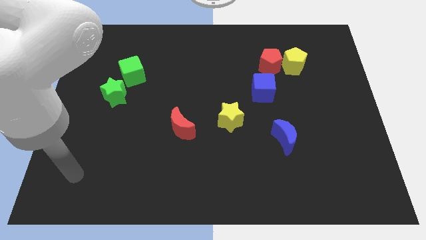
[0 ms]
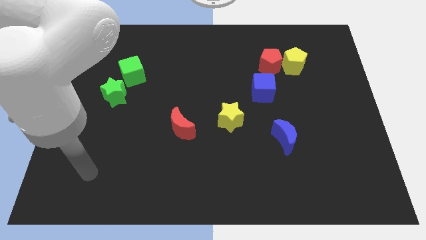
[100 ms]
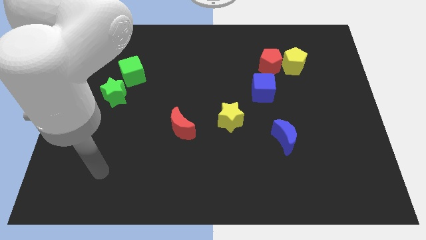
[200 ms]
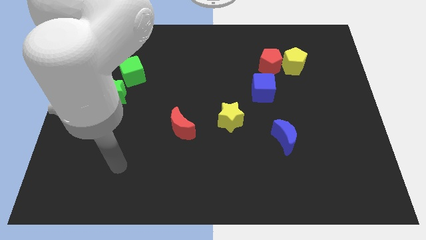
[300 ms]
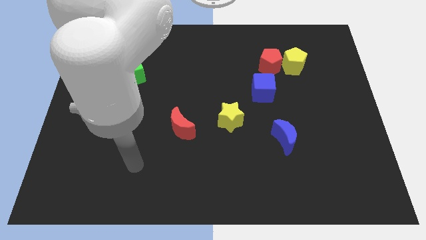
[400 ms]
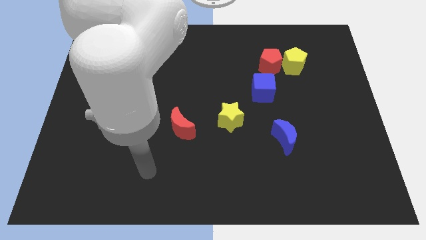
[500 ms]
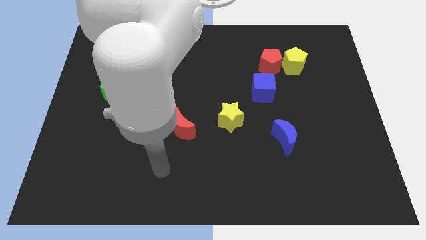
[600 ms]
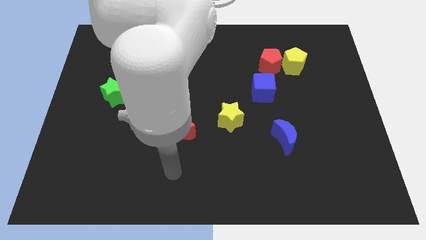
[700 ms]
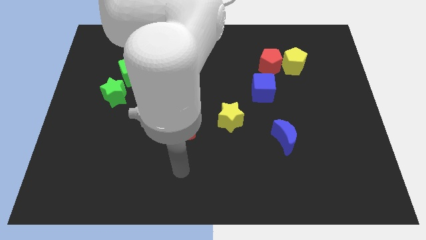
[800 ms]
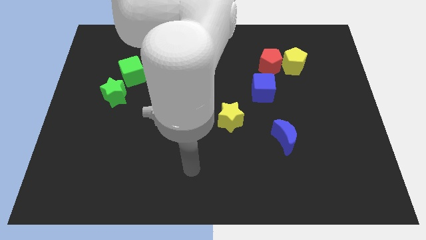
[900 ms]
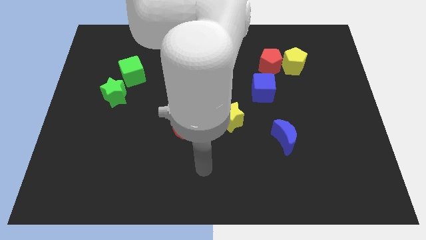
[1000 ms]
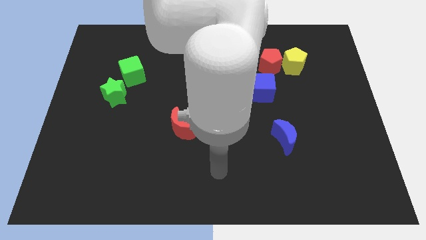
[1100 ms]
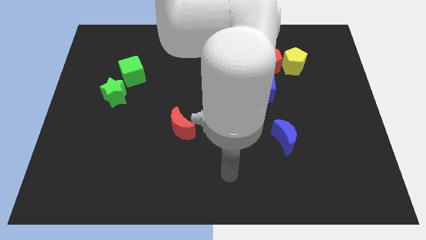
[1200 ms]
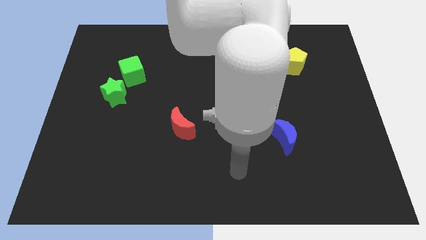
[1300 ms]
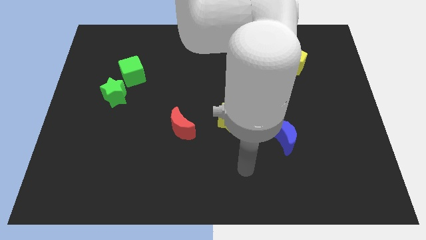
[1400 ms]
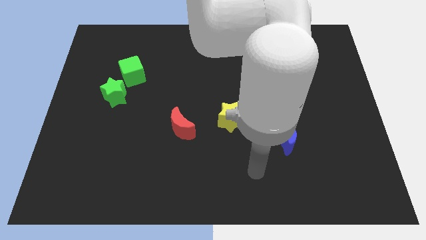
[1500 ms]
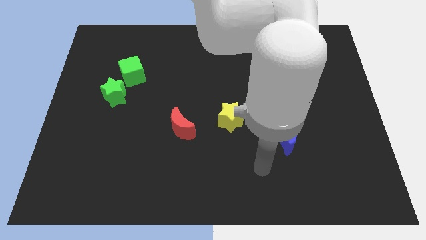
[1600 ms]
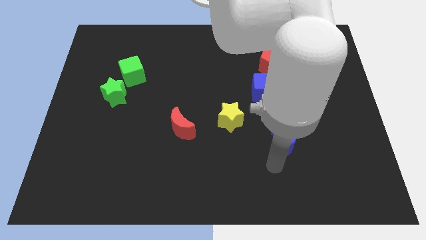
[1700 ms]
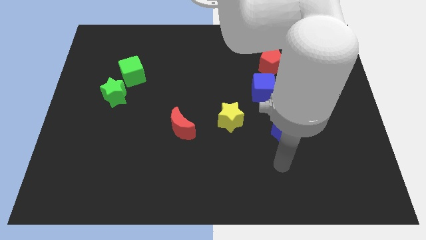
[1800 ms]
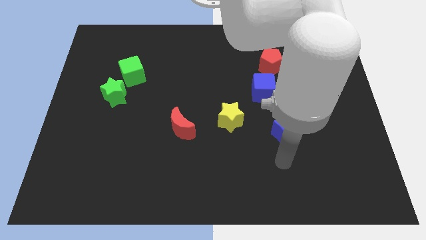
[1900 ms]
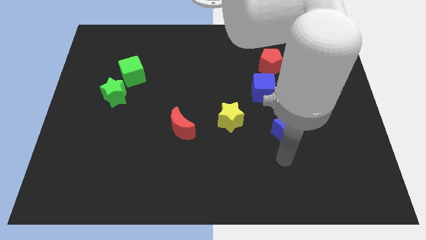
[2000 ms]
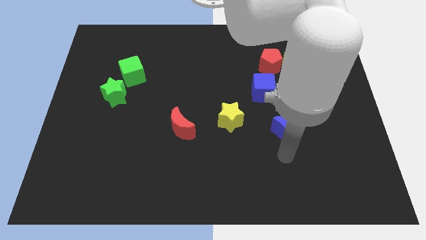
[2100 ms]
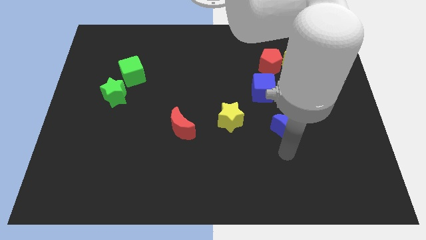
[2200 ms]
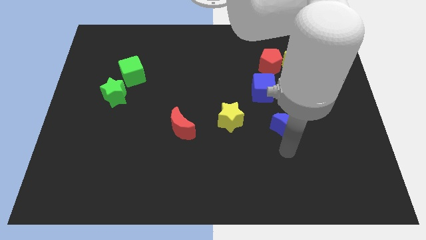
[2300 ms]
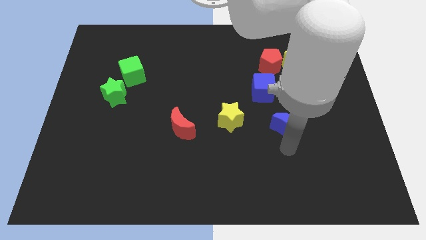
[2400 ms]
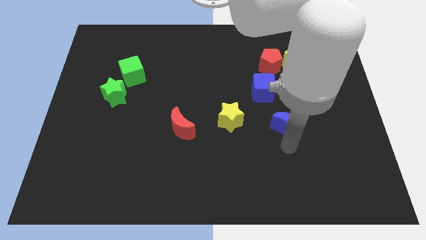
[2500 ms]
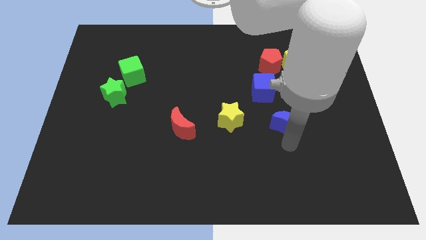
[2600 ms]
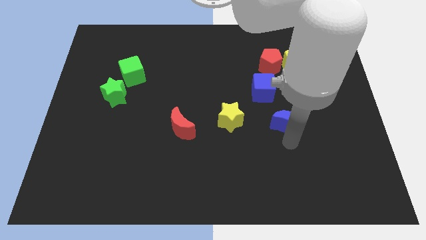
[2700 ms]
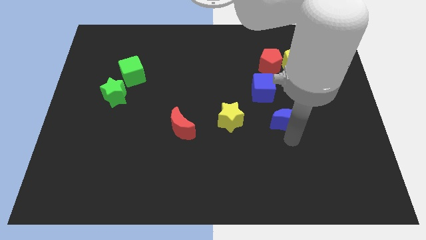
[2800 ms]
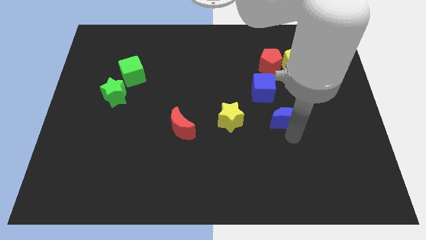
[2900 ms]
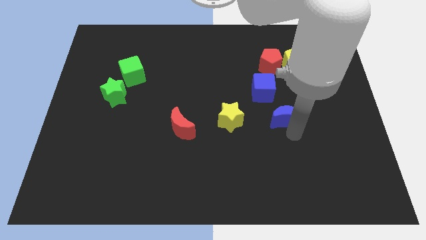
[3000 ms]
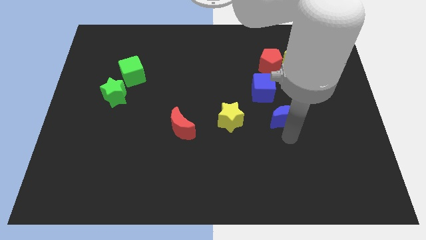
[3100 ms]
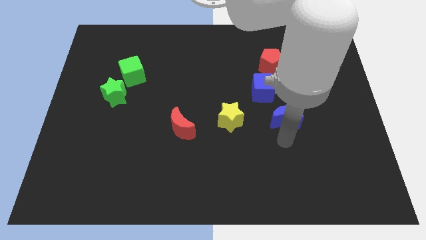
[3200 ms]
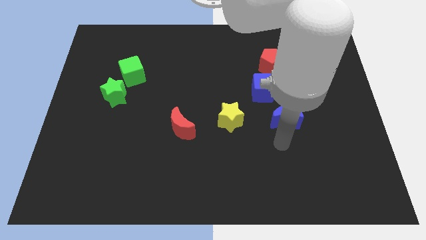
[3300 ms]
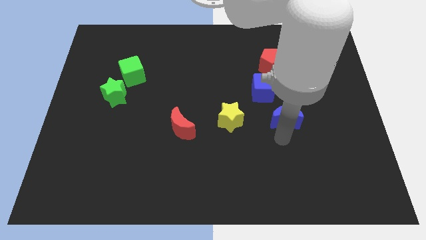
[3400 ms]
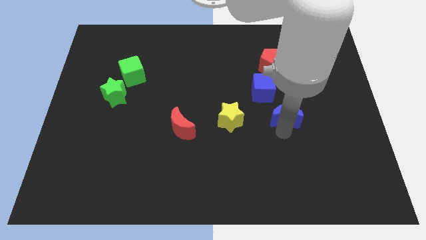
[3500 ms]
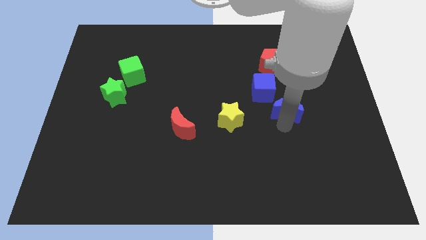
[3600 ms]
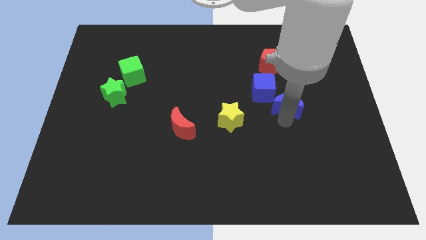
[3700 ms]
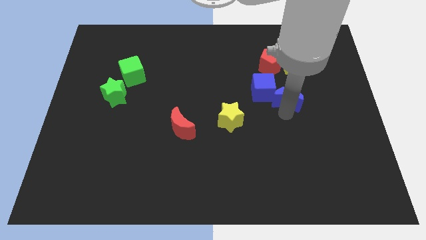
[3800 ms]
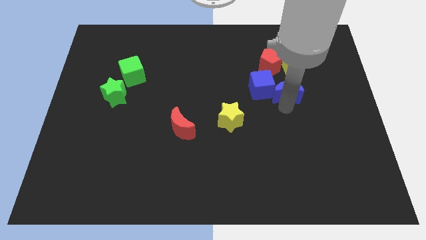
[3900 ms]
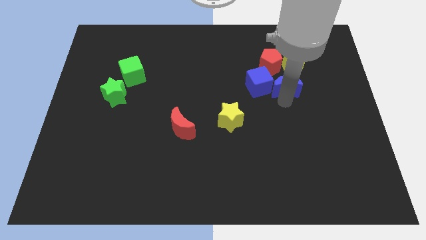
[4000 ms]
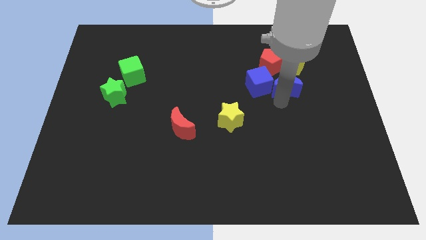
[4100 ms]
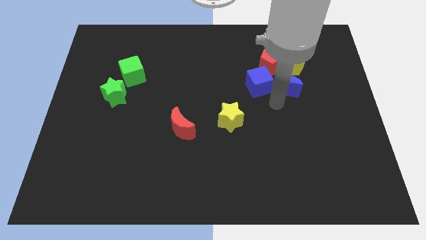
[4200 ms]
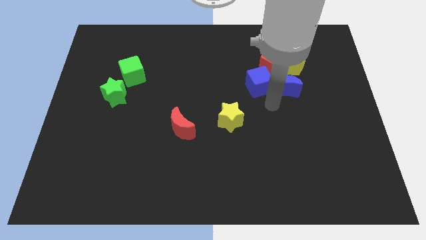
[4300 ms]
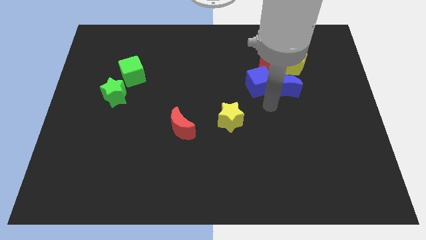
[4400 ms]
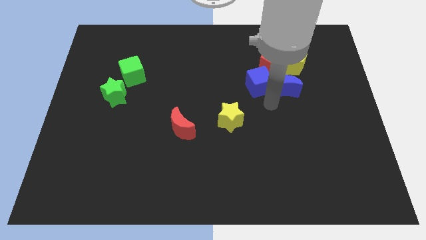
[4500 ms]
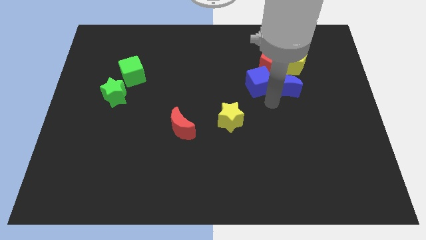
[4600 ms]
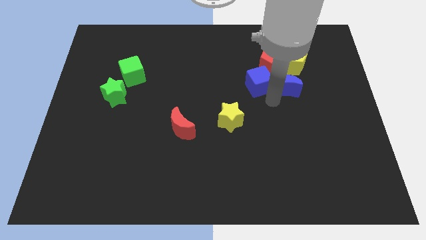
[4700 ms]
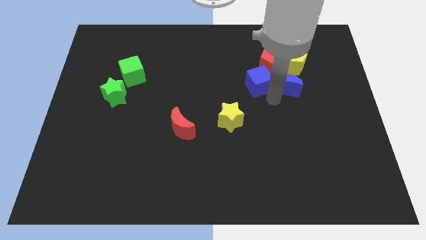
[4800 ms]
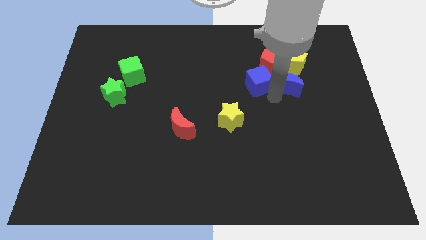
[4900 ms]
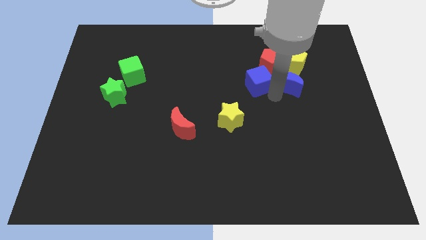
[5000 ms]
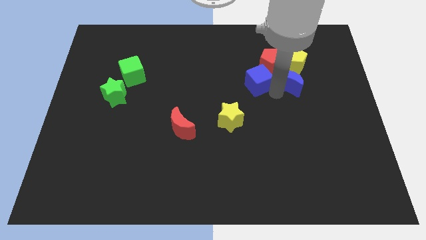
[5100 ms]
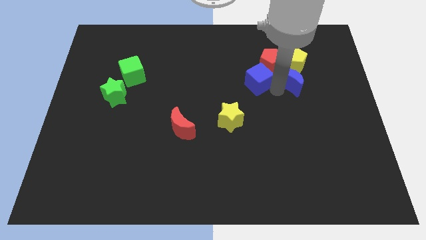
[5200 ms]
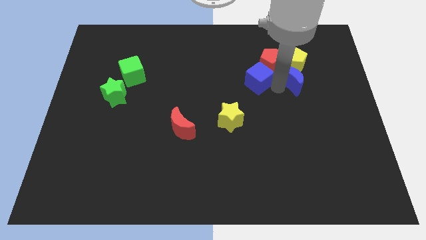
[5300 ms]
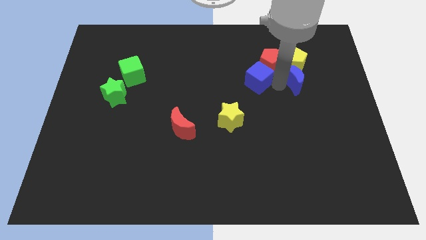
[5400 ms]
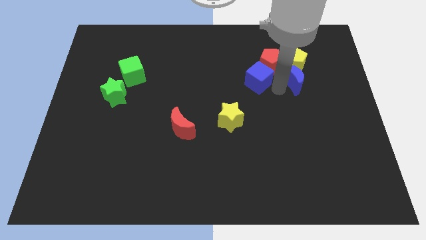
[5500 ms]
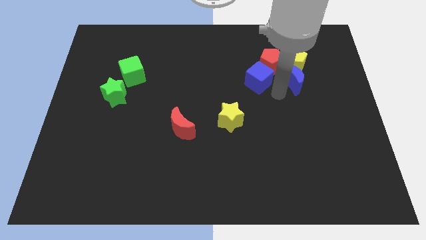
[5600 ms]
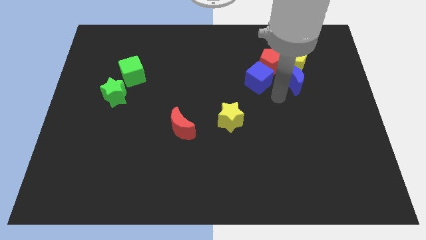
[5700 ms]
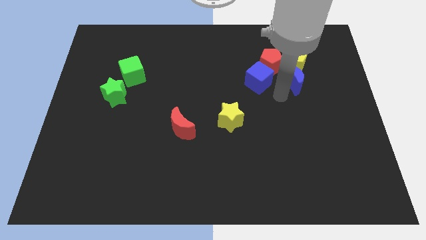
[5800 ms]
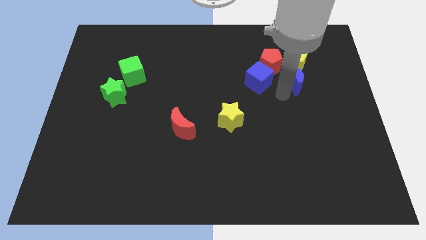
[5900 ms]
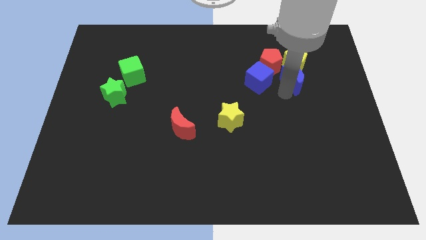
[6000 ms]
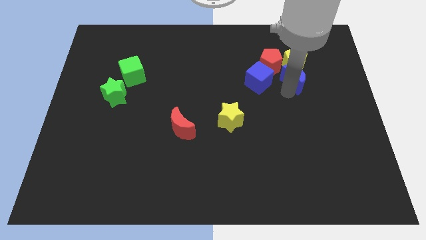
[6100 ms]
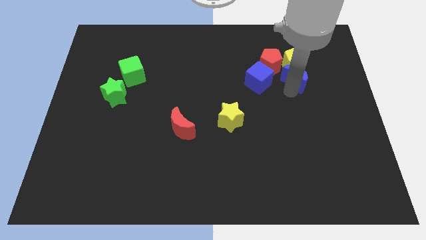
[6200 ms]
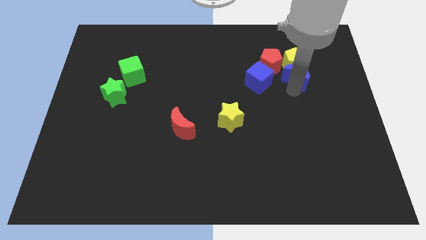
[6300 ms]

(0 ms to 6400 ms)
move the blue moon to the right of the red pentagon

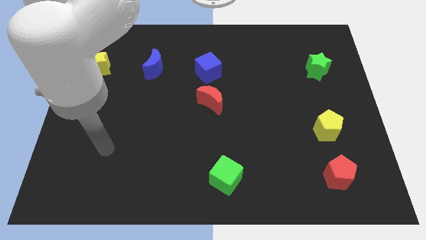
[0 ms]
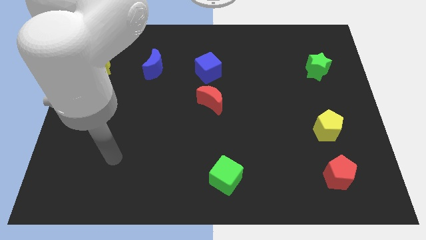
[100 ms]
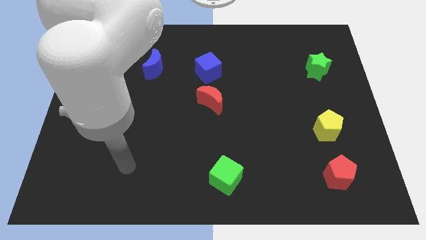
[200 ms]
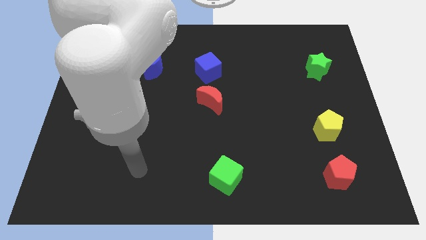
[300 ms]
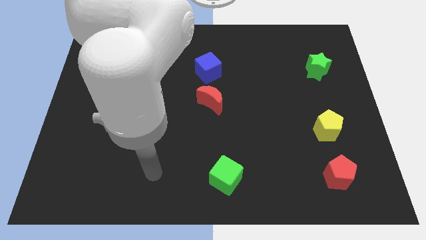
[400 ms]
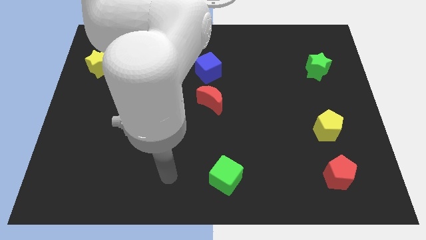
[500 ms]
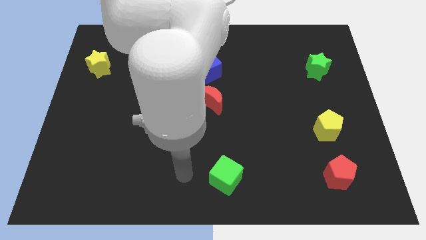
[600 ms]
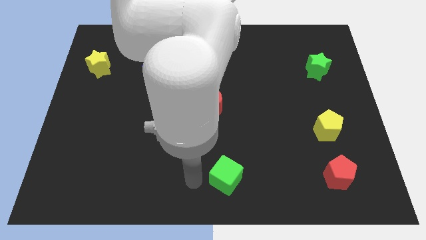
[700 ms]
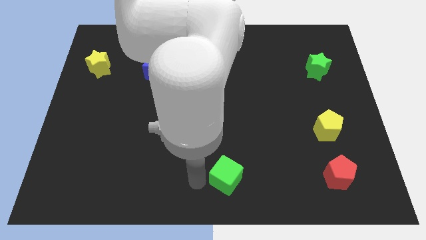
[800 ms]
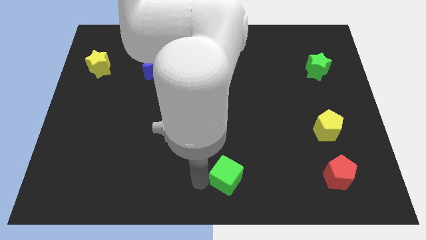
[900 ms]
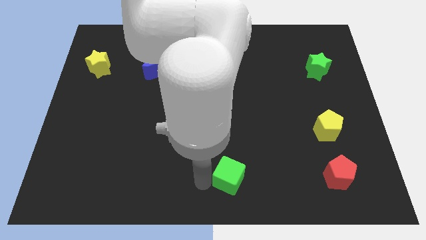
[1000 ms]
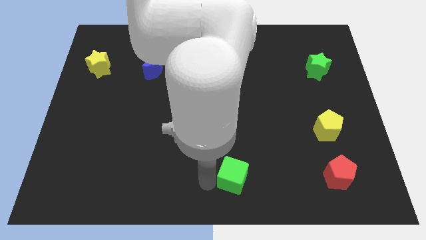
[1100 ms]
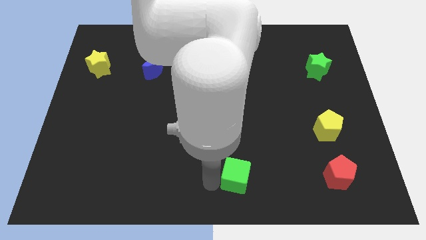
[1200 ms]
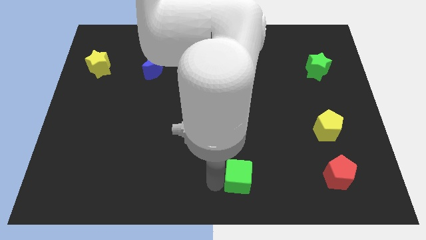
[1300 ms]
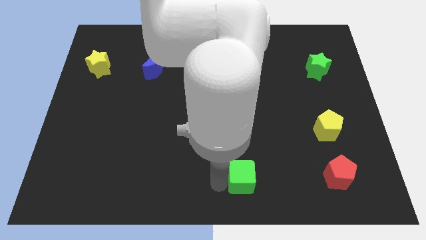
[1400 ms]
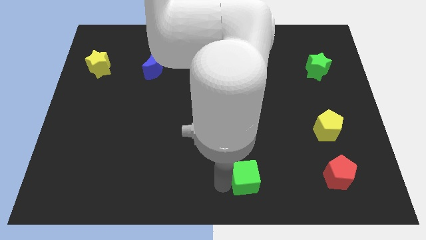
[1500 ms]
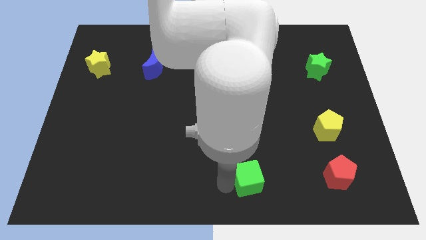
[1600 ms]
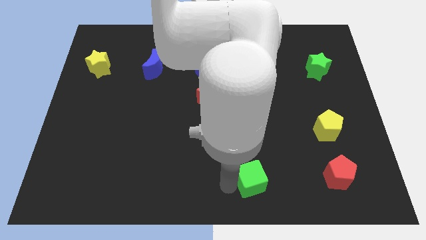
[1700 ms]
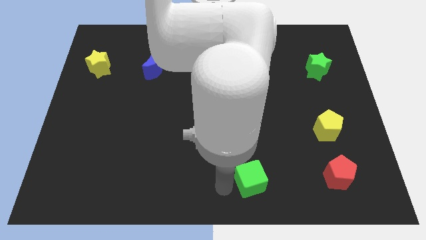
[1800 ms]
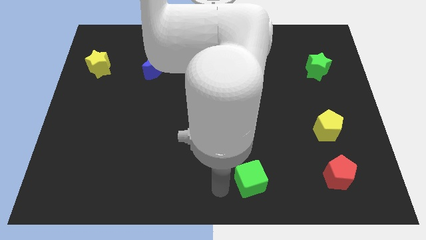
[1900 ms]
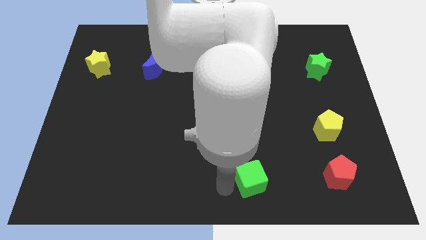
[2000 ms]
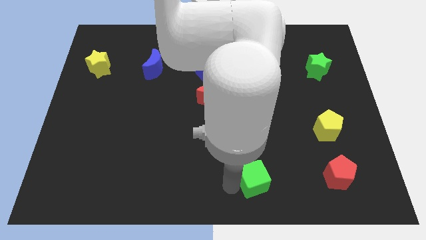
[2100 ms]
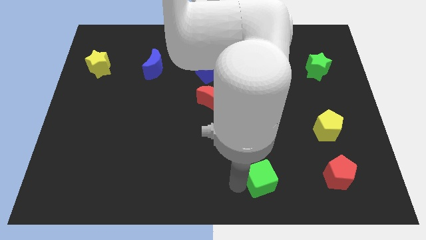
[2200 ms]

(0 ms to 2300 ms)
slide the green cube to the left side of the red pentagon
